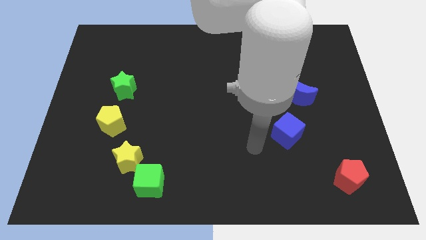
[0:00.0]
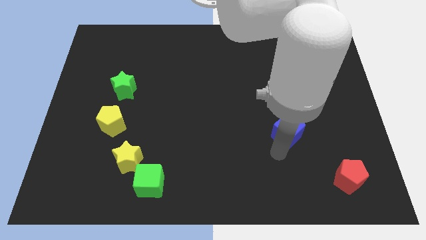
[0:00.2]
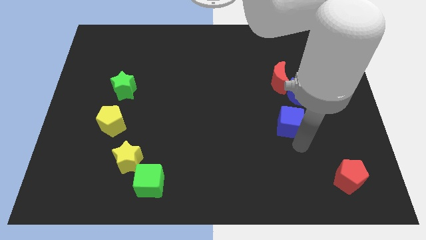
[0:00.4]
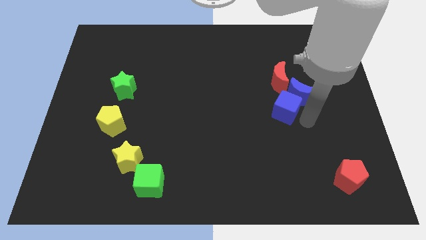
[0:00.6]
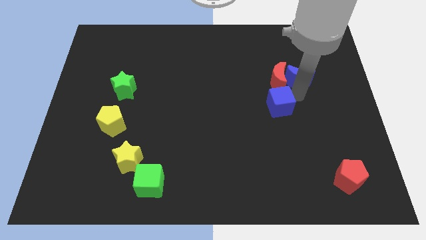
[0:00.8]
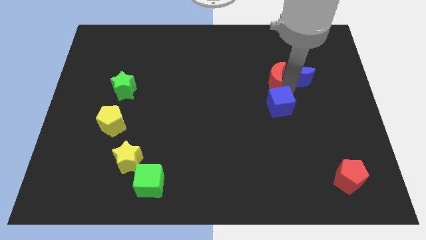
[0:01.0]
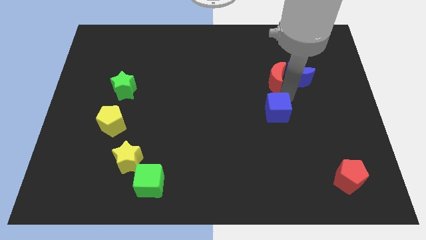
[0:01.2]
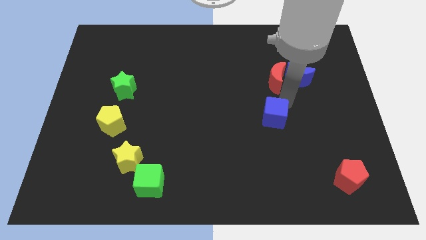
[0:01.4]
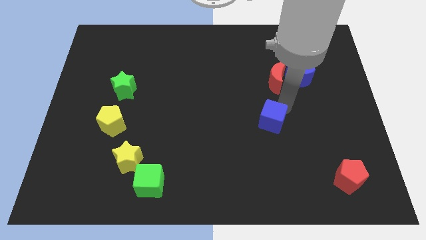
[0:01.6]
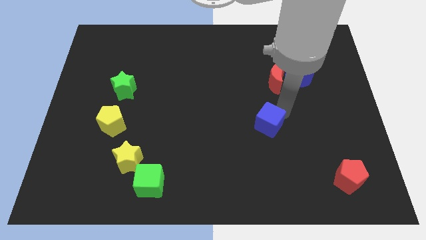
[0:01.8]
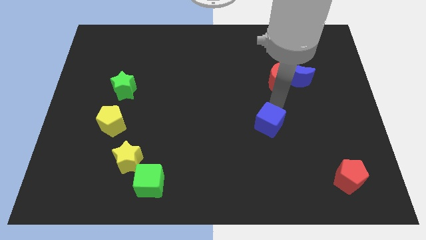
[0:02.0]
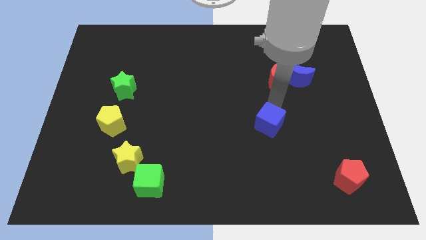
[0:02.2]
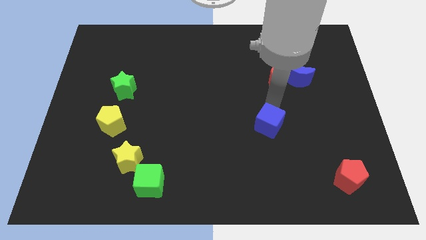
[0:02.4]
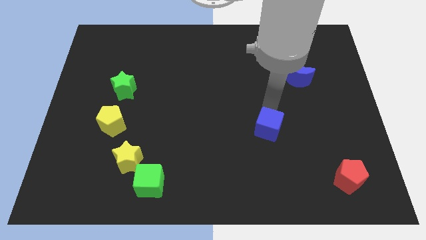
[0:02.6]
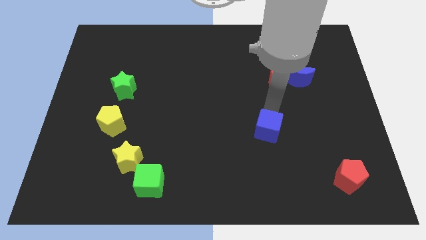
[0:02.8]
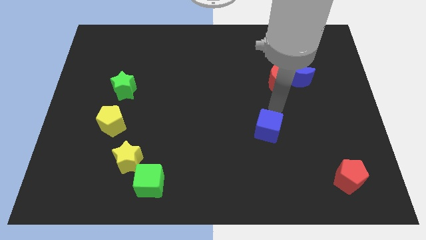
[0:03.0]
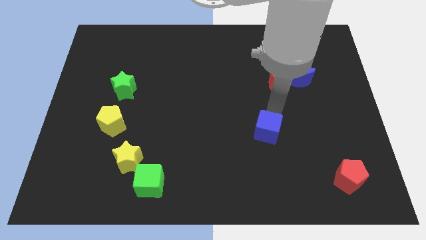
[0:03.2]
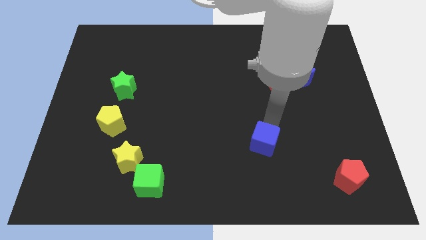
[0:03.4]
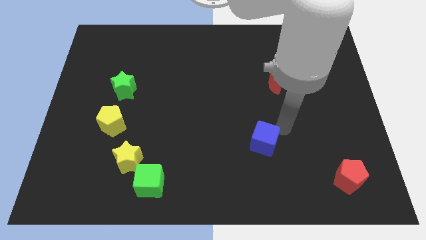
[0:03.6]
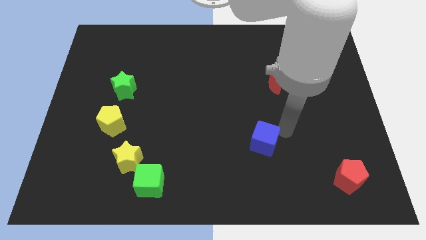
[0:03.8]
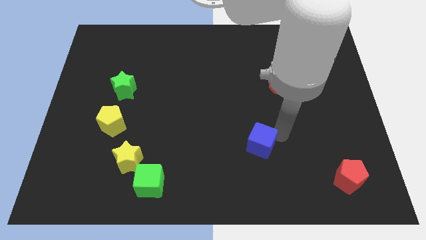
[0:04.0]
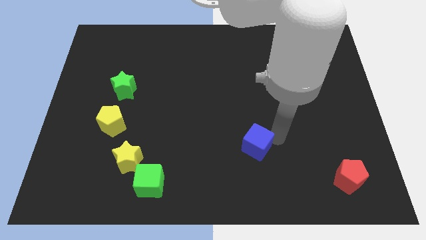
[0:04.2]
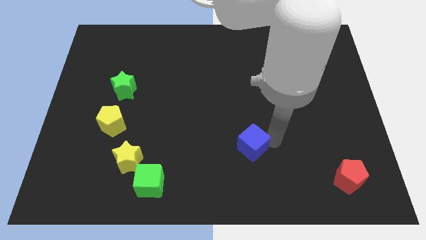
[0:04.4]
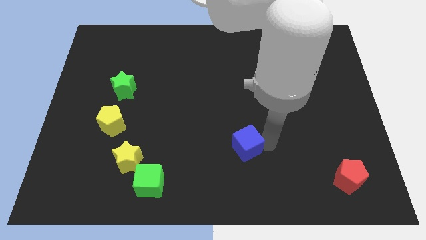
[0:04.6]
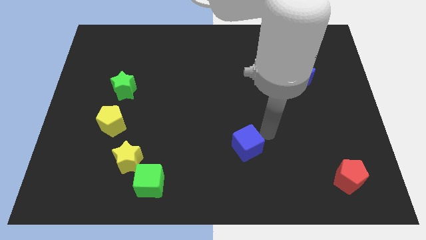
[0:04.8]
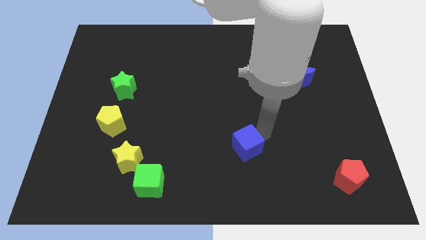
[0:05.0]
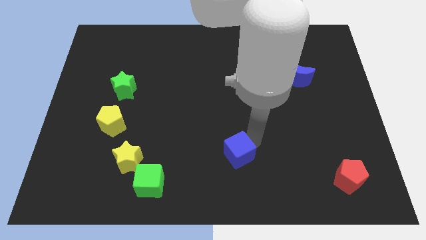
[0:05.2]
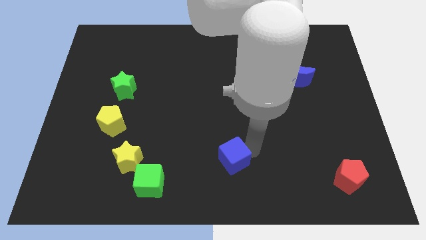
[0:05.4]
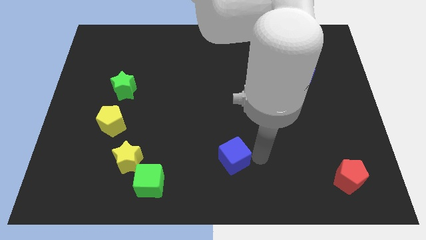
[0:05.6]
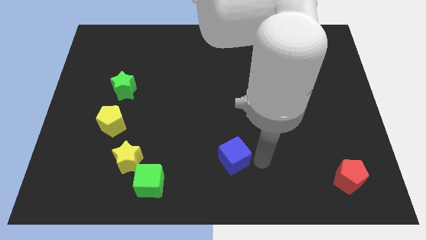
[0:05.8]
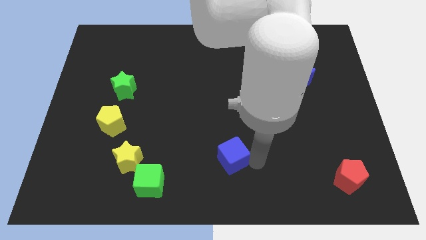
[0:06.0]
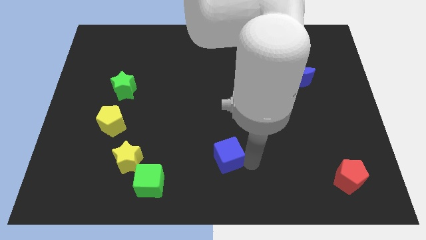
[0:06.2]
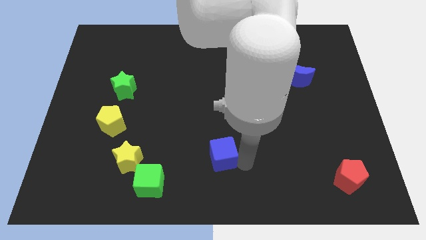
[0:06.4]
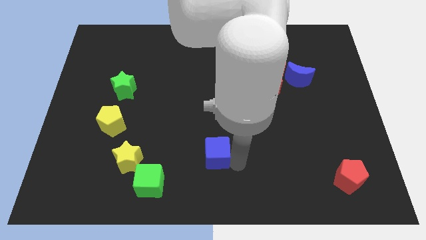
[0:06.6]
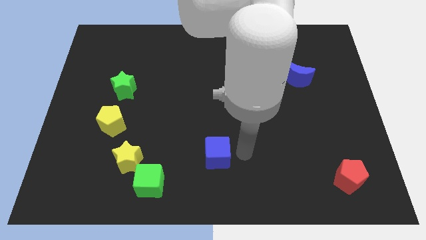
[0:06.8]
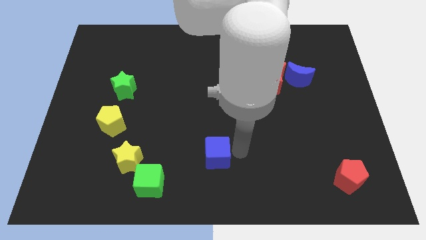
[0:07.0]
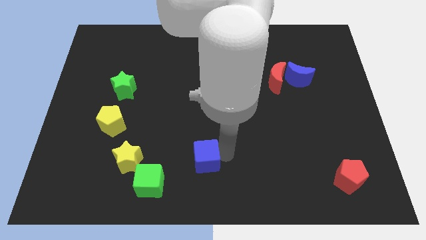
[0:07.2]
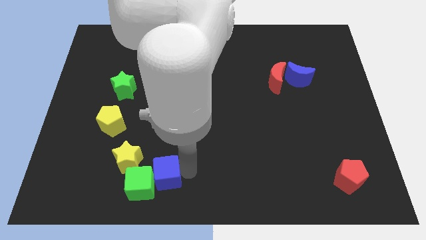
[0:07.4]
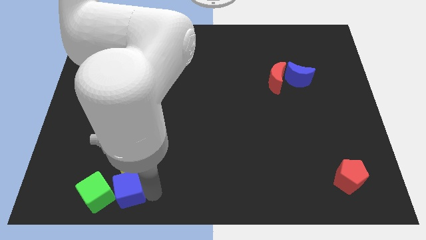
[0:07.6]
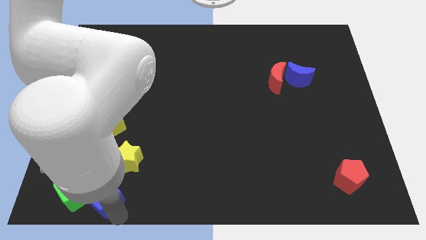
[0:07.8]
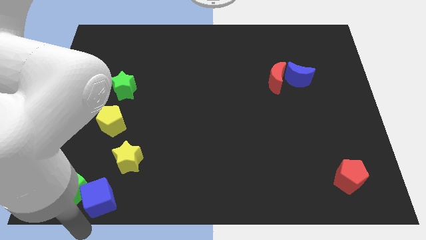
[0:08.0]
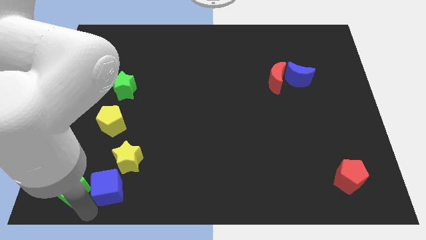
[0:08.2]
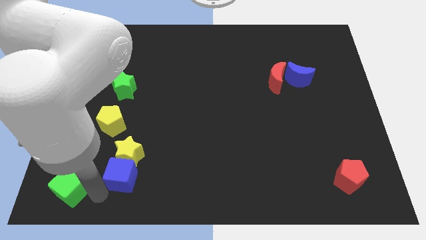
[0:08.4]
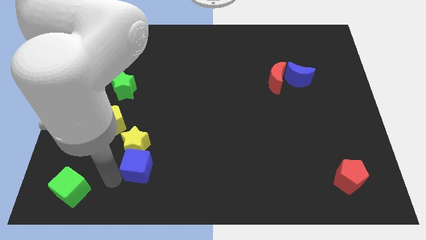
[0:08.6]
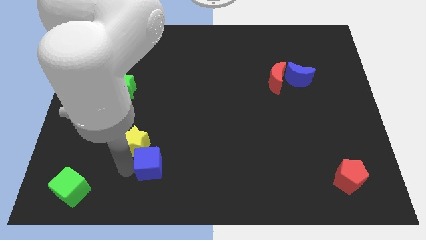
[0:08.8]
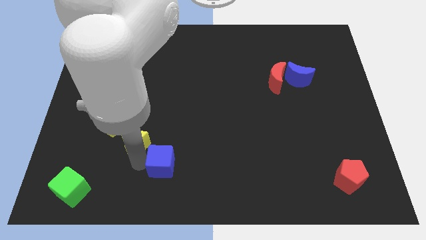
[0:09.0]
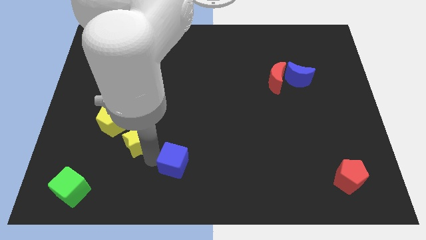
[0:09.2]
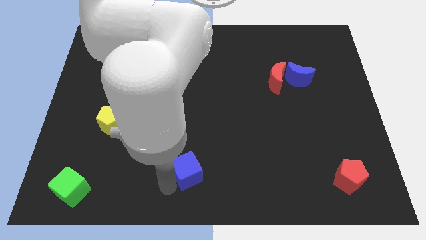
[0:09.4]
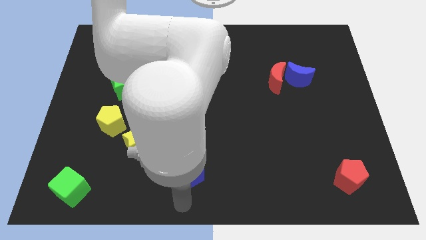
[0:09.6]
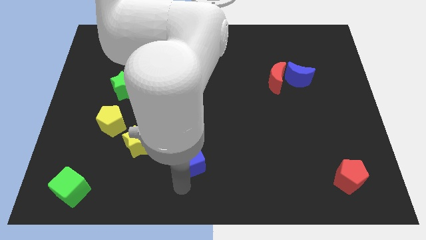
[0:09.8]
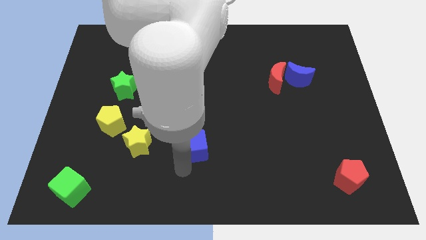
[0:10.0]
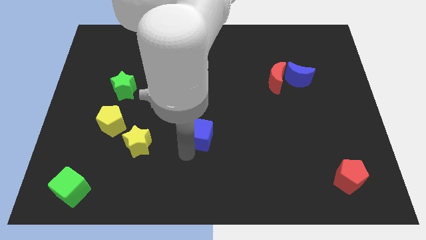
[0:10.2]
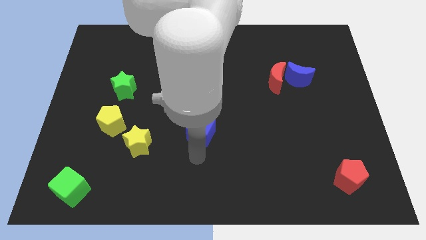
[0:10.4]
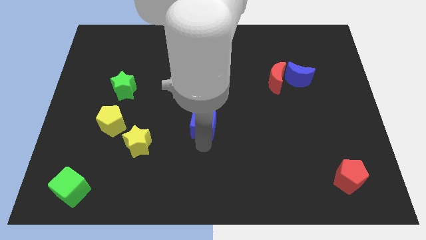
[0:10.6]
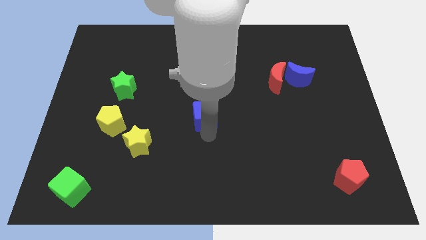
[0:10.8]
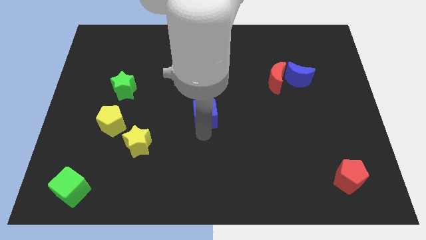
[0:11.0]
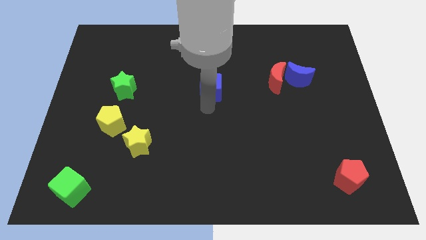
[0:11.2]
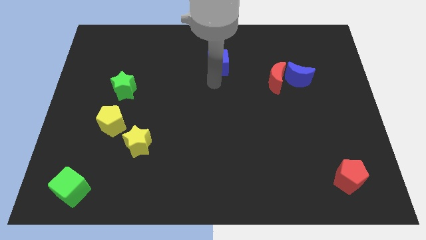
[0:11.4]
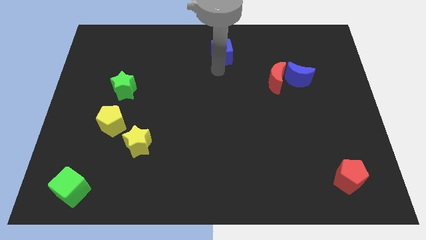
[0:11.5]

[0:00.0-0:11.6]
slide the blue cube to the towards your base
